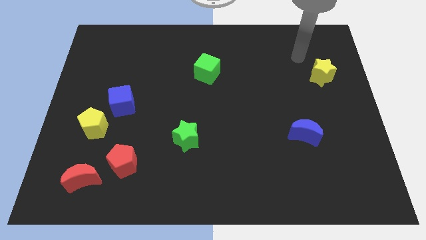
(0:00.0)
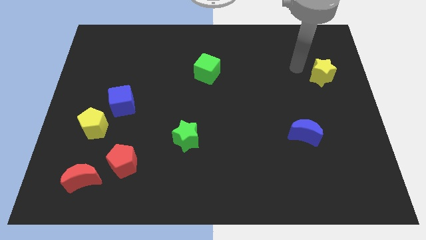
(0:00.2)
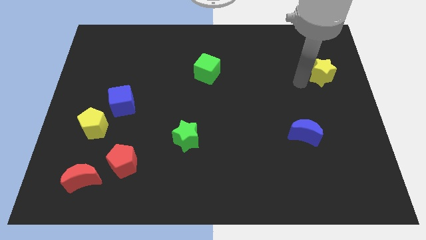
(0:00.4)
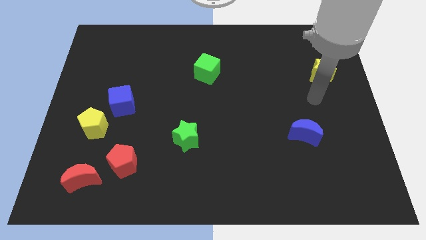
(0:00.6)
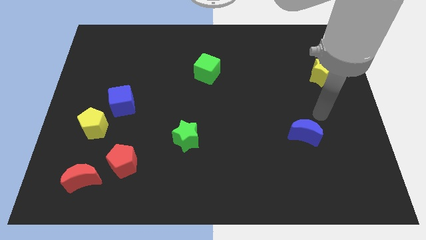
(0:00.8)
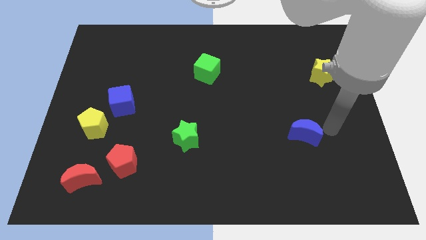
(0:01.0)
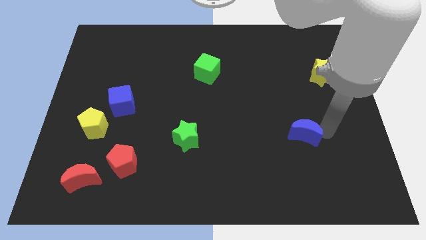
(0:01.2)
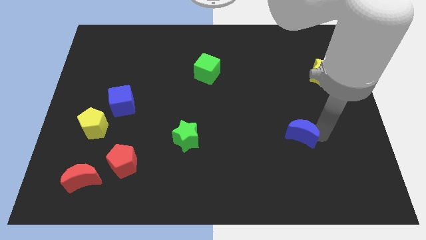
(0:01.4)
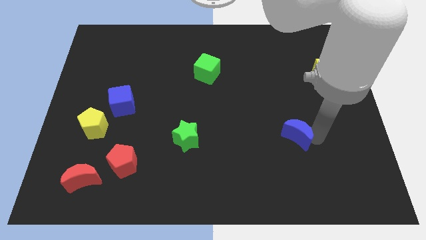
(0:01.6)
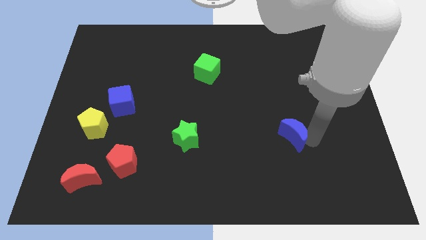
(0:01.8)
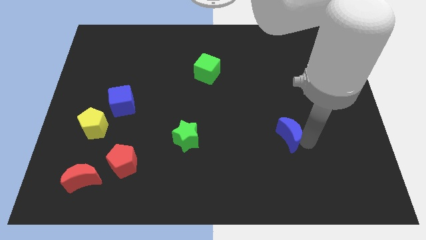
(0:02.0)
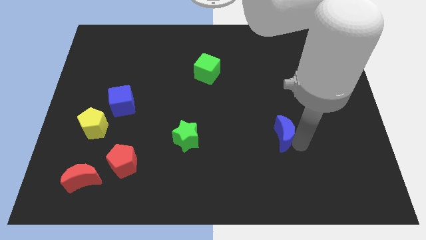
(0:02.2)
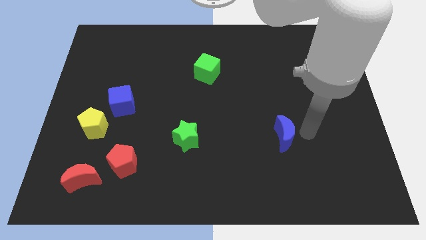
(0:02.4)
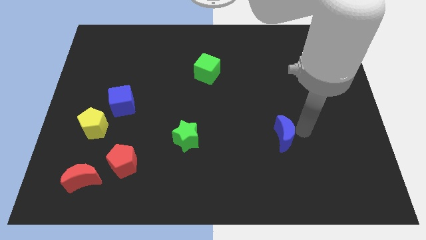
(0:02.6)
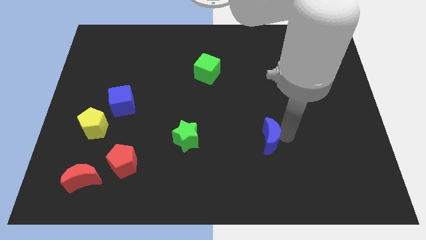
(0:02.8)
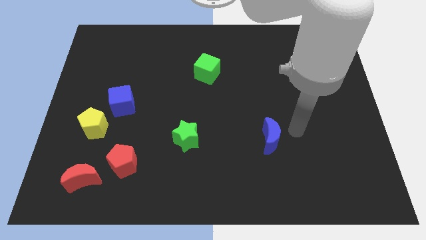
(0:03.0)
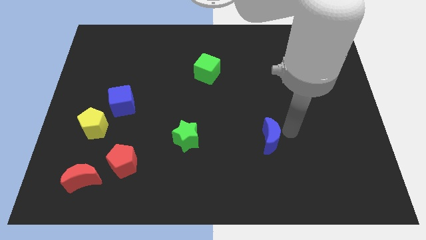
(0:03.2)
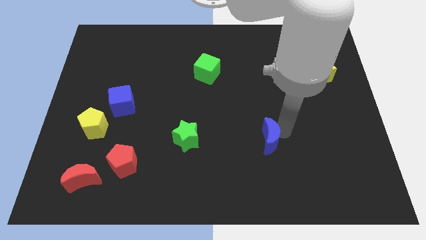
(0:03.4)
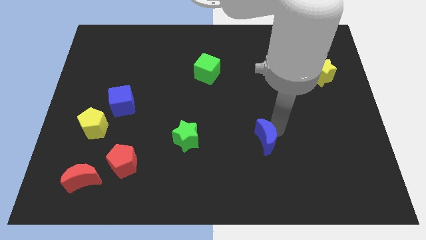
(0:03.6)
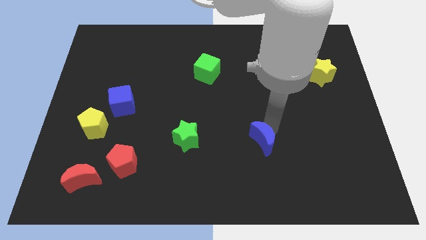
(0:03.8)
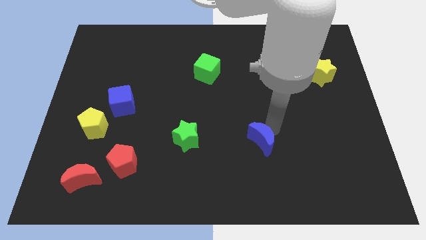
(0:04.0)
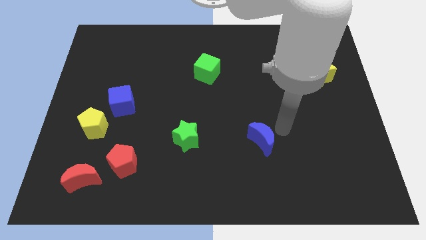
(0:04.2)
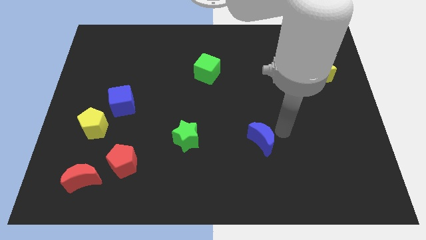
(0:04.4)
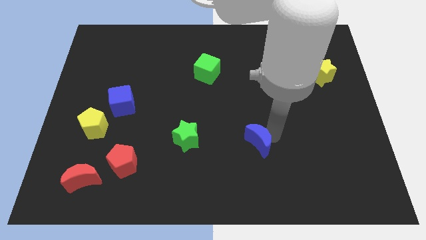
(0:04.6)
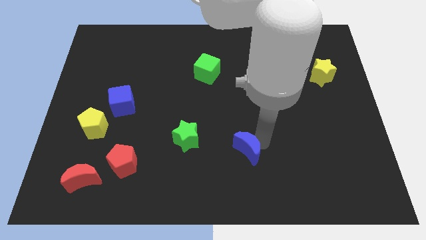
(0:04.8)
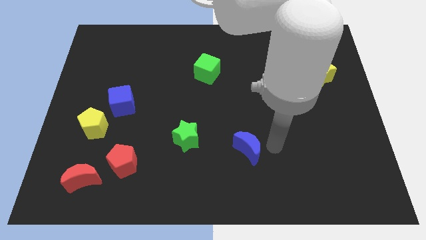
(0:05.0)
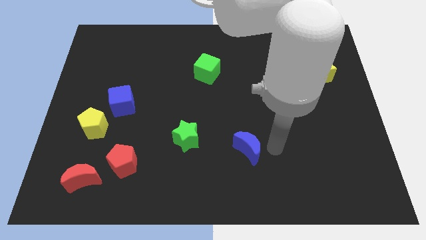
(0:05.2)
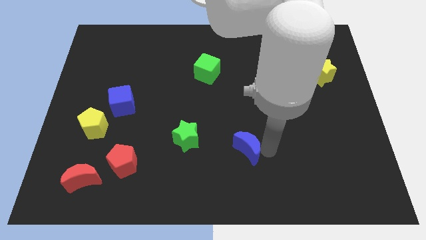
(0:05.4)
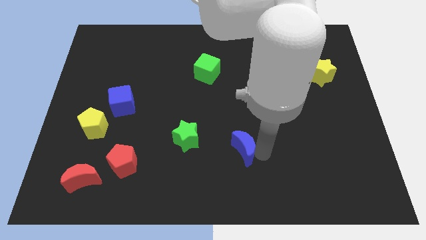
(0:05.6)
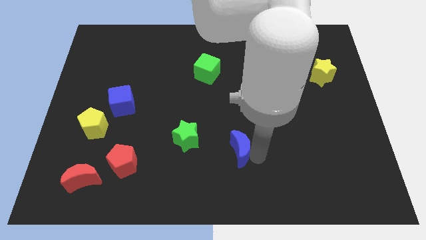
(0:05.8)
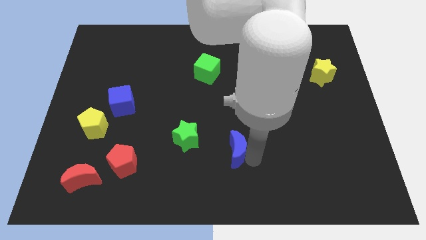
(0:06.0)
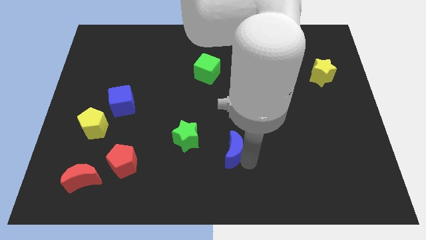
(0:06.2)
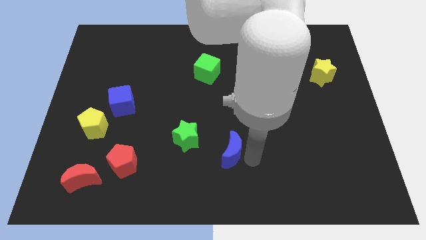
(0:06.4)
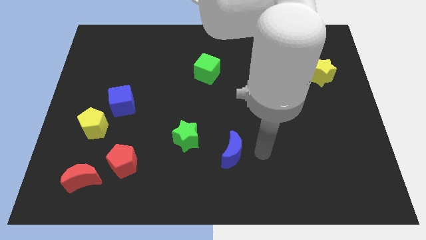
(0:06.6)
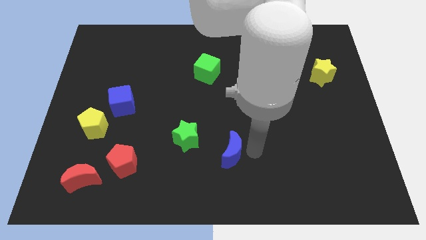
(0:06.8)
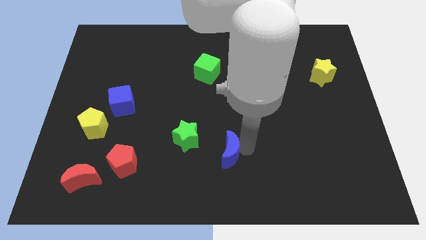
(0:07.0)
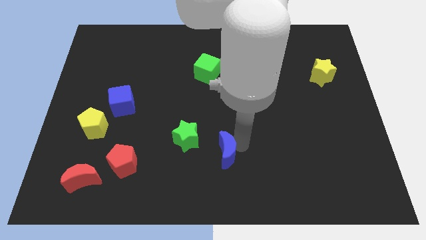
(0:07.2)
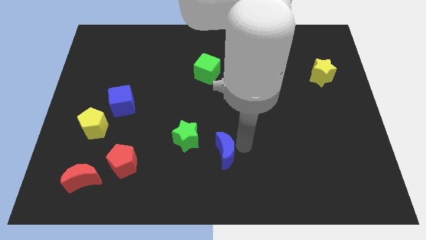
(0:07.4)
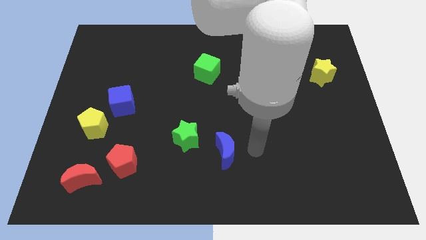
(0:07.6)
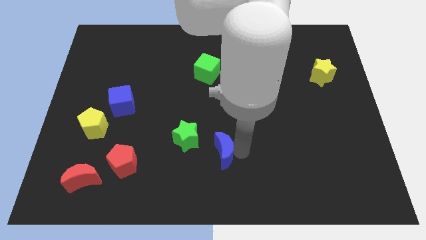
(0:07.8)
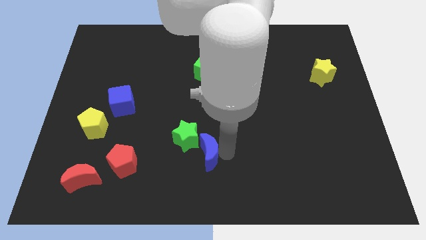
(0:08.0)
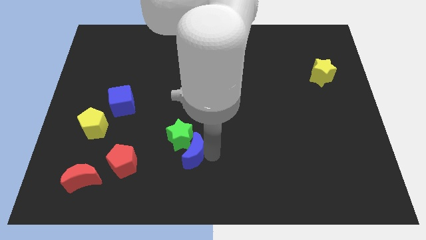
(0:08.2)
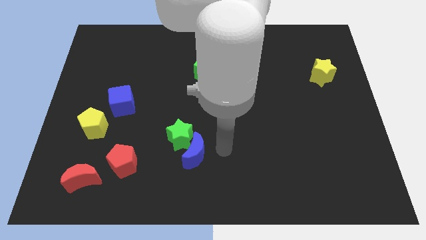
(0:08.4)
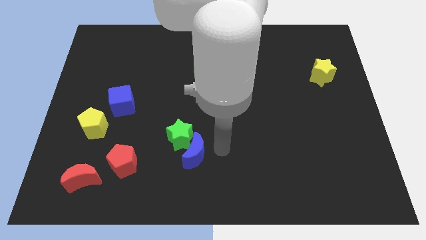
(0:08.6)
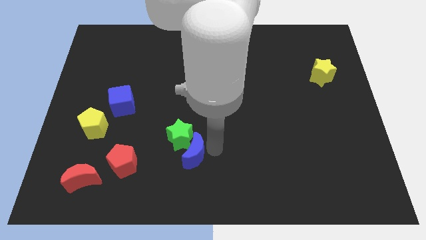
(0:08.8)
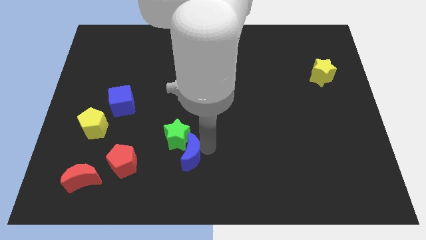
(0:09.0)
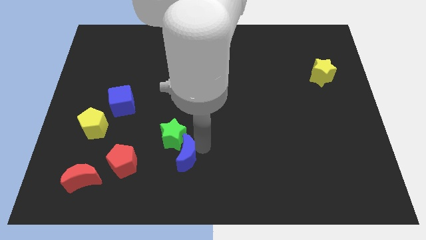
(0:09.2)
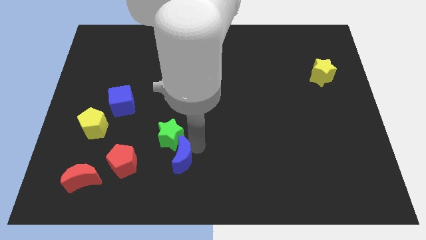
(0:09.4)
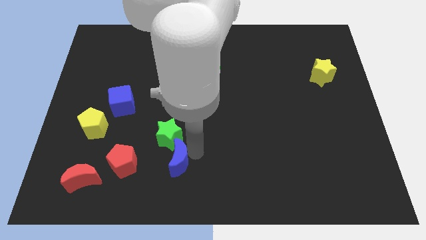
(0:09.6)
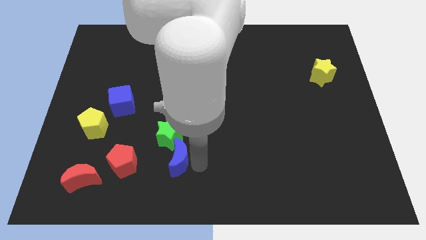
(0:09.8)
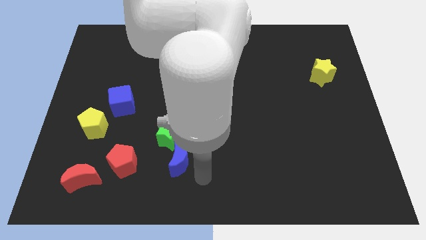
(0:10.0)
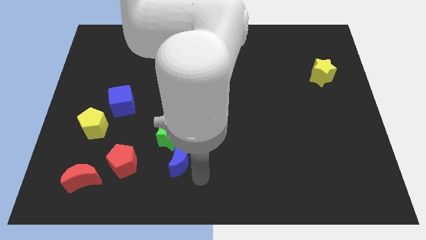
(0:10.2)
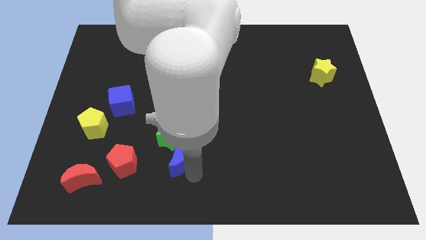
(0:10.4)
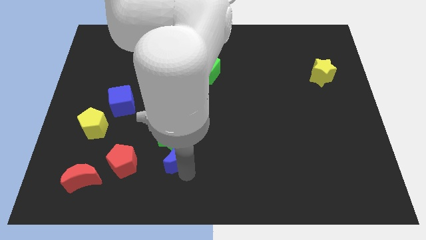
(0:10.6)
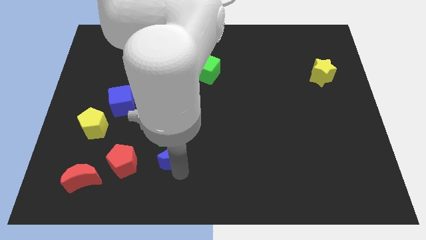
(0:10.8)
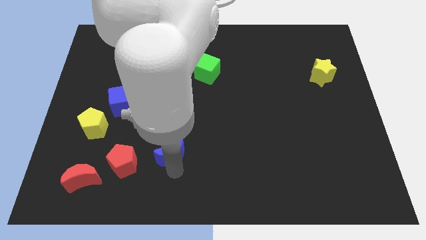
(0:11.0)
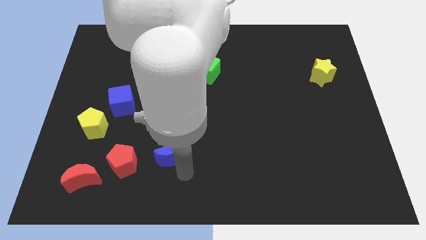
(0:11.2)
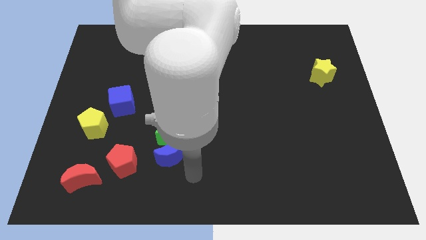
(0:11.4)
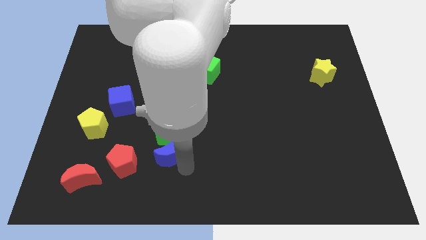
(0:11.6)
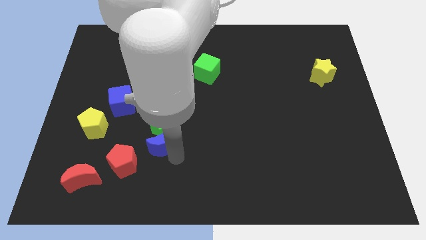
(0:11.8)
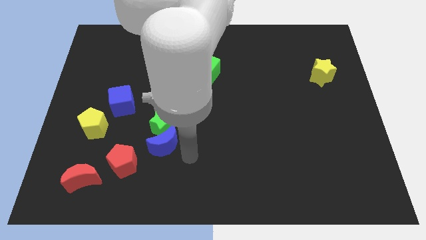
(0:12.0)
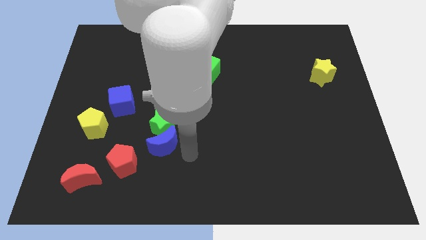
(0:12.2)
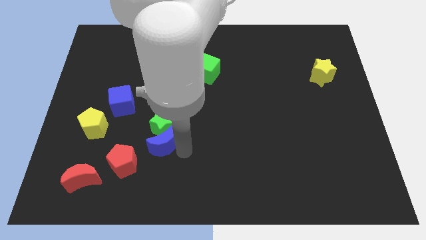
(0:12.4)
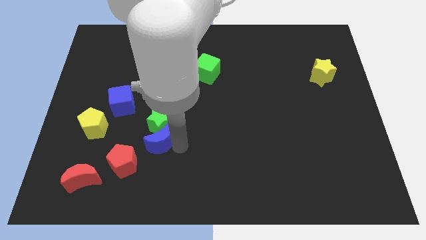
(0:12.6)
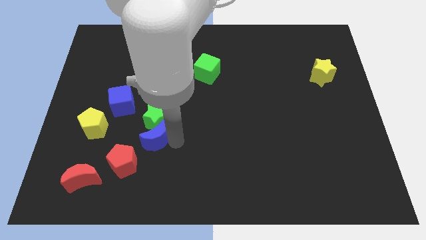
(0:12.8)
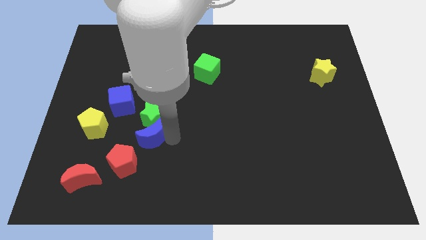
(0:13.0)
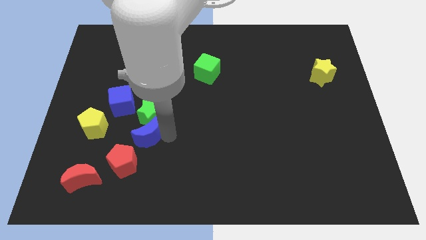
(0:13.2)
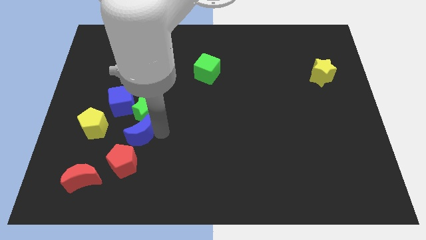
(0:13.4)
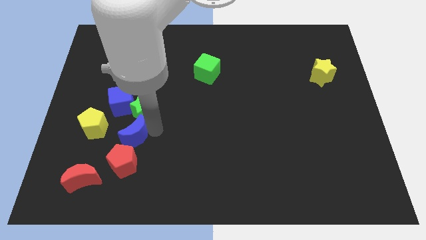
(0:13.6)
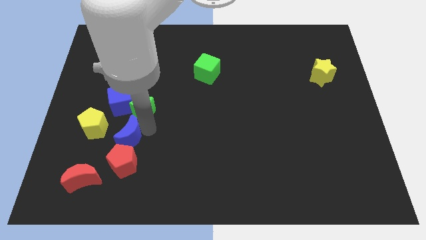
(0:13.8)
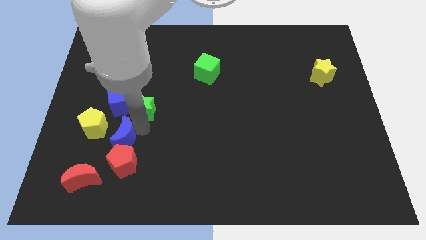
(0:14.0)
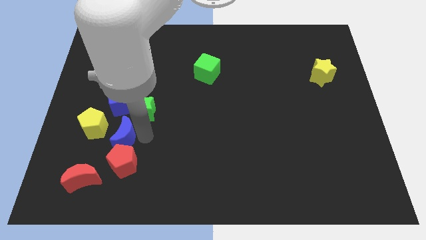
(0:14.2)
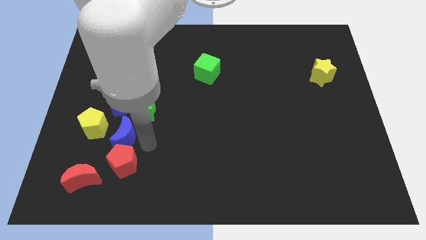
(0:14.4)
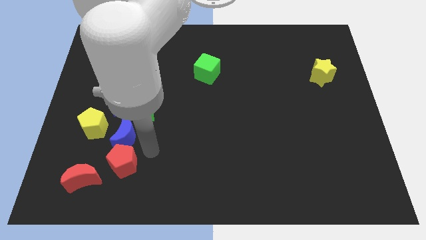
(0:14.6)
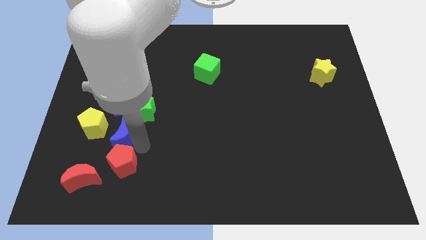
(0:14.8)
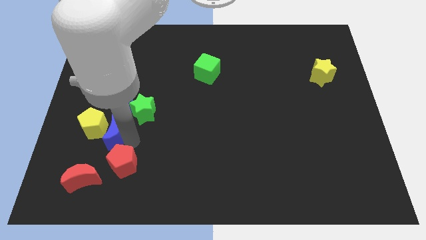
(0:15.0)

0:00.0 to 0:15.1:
slide the blue moon next to the yellow pentagon

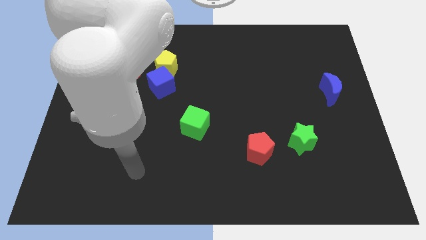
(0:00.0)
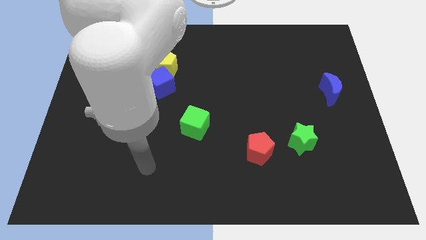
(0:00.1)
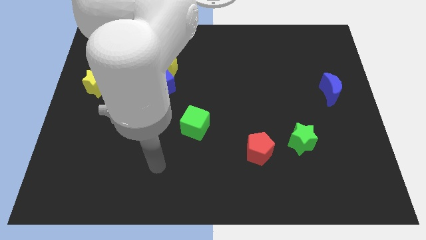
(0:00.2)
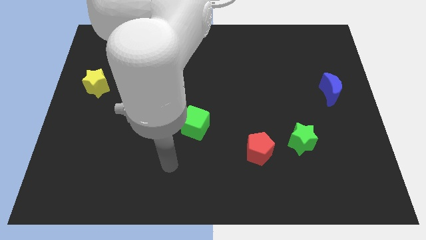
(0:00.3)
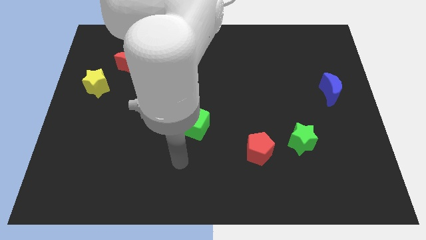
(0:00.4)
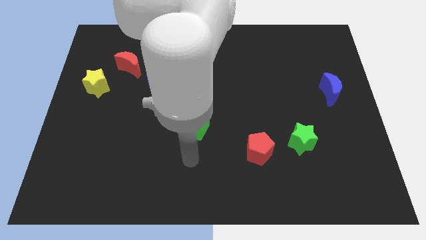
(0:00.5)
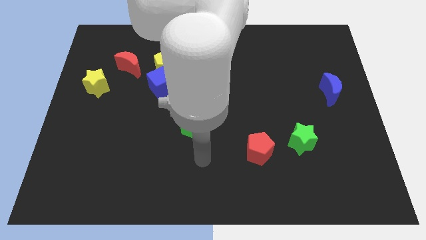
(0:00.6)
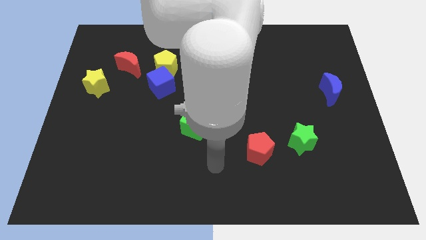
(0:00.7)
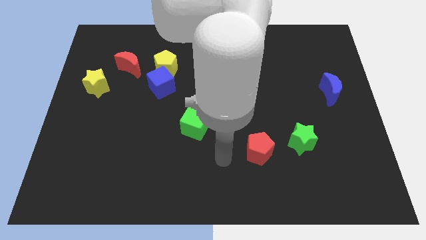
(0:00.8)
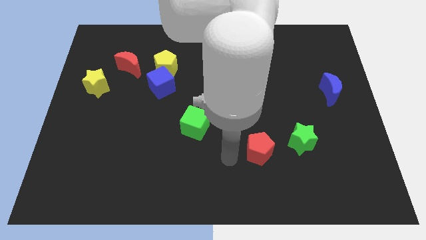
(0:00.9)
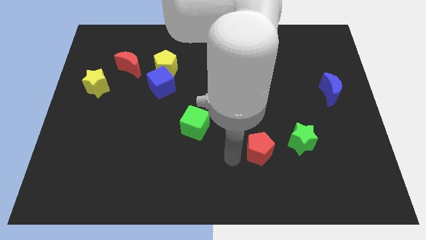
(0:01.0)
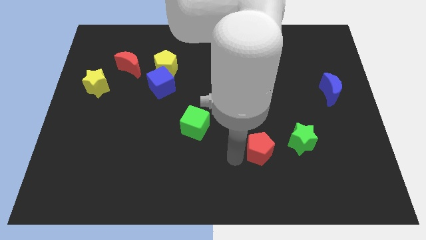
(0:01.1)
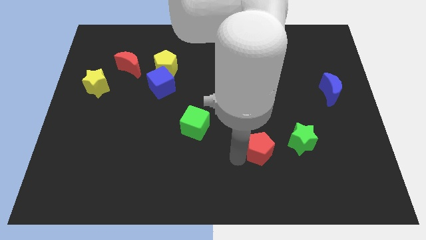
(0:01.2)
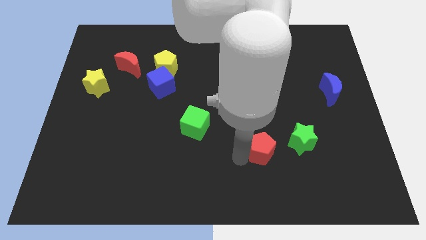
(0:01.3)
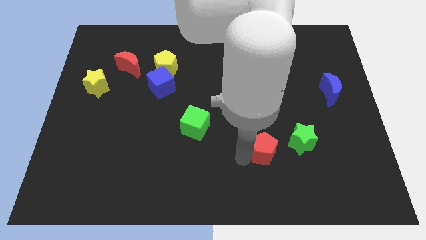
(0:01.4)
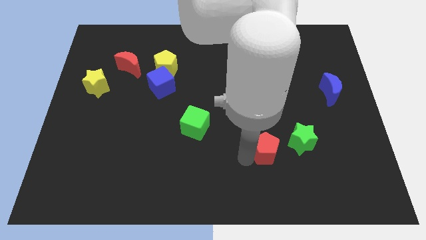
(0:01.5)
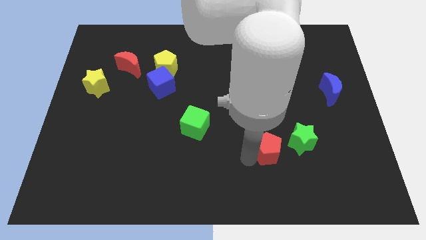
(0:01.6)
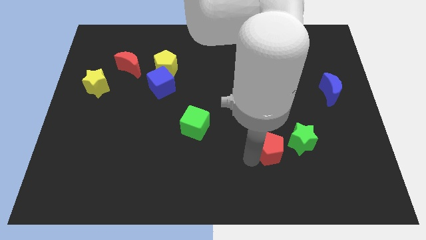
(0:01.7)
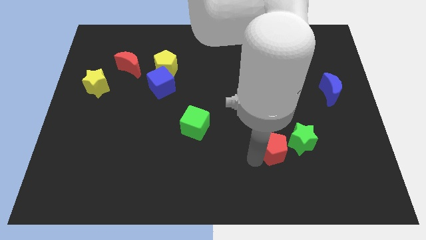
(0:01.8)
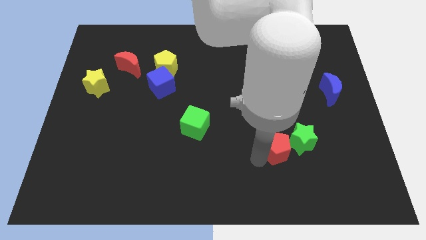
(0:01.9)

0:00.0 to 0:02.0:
put the red pentagon towards the green star
